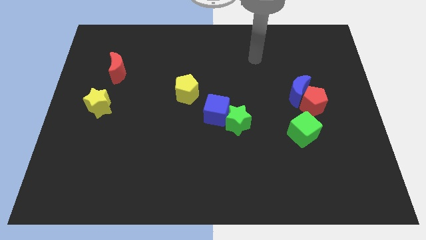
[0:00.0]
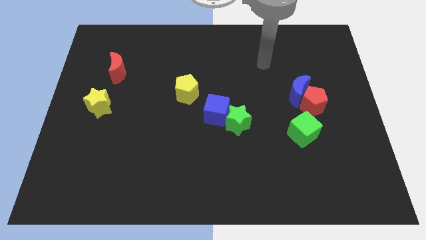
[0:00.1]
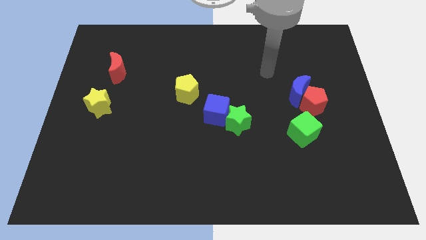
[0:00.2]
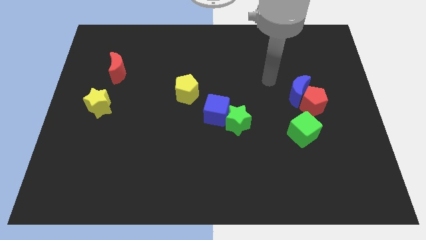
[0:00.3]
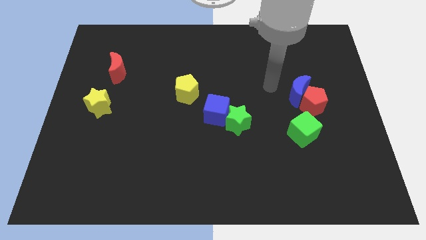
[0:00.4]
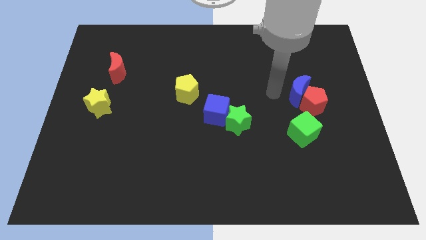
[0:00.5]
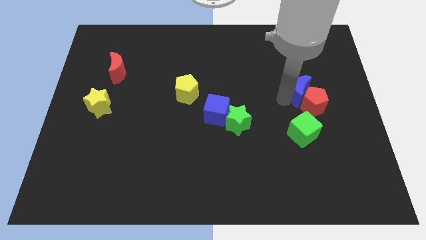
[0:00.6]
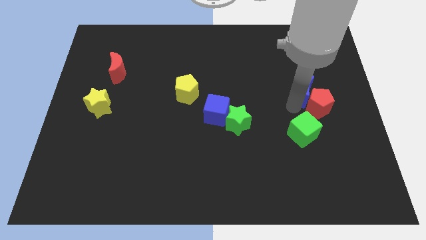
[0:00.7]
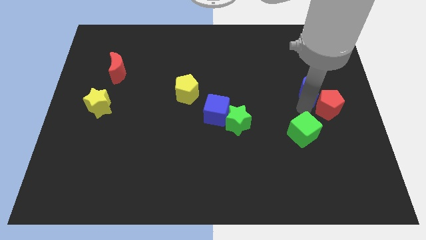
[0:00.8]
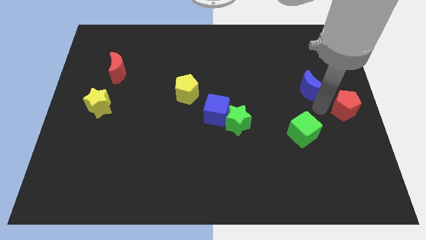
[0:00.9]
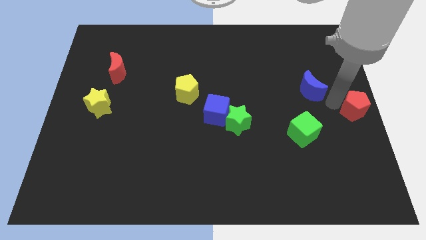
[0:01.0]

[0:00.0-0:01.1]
pull the blue moon apart from the red pentagon

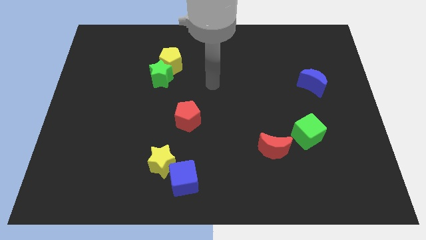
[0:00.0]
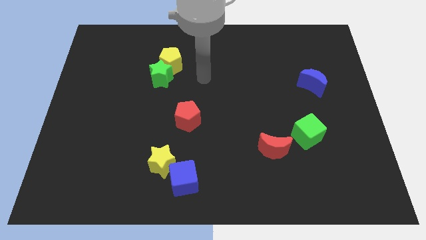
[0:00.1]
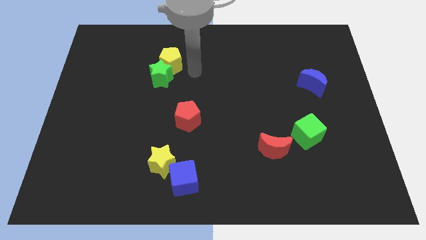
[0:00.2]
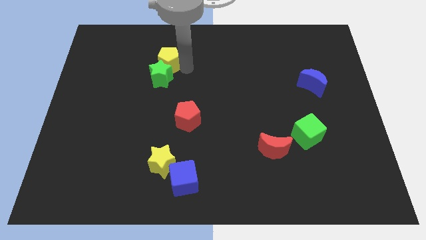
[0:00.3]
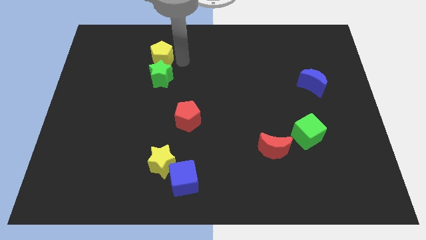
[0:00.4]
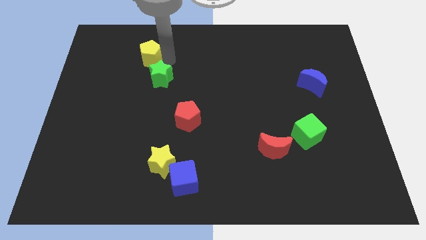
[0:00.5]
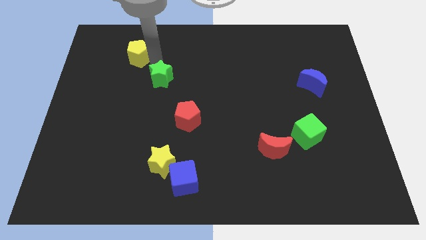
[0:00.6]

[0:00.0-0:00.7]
pull the green star apart from the yellow pentagon

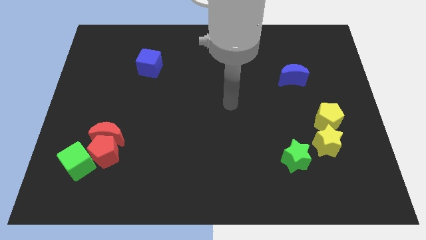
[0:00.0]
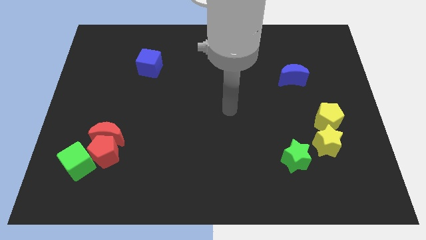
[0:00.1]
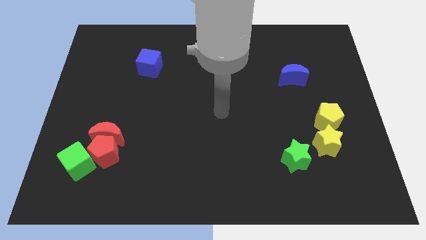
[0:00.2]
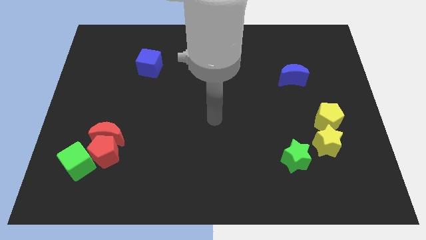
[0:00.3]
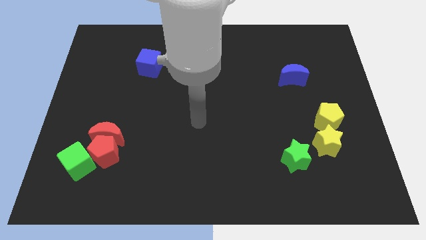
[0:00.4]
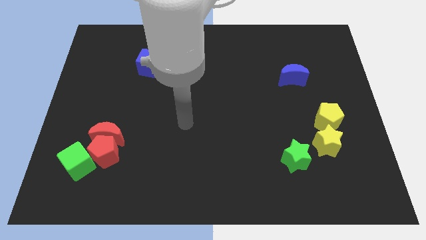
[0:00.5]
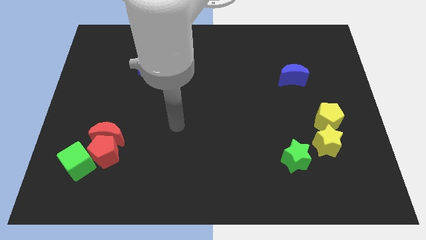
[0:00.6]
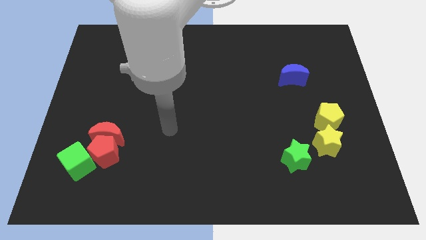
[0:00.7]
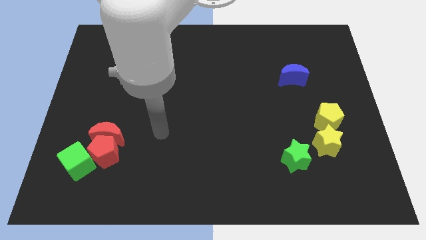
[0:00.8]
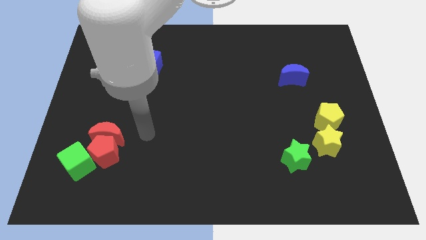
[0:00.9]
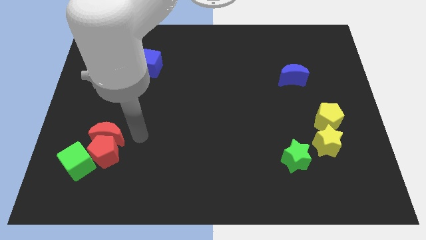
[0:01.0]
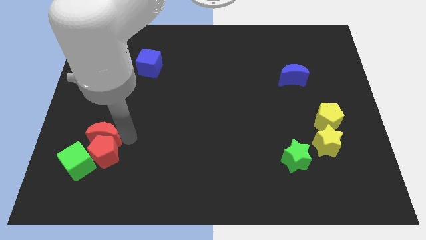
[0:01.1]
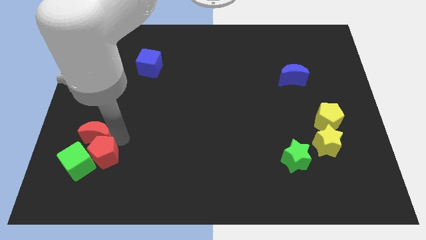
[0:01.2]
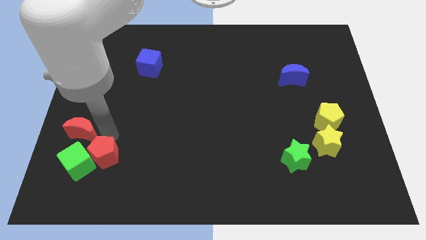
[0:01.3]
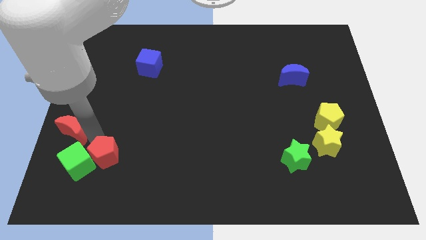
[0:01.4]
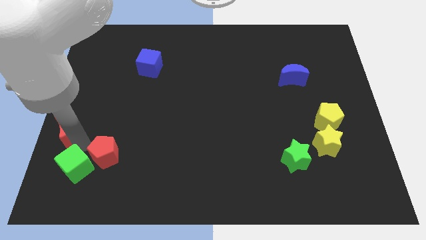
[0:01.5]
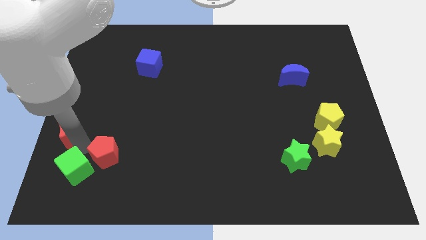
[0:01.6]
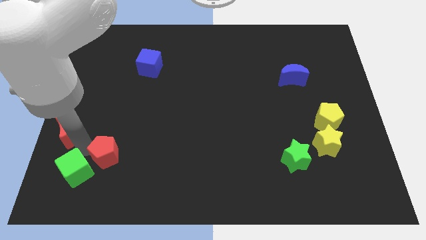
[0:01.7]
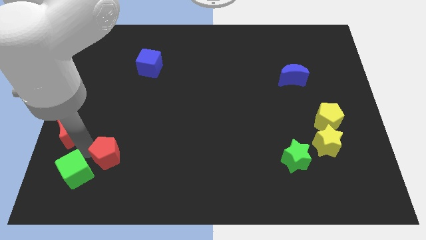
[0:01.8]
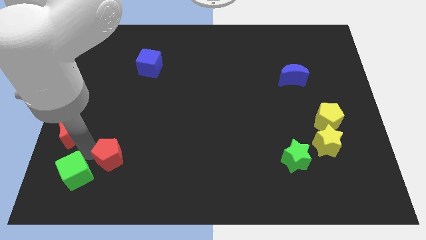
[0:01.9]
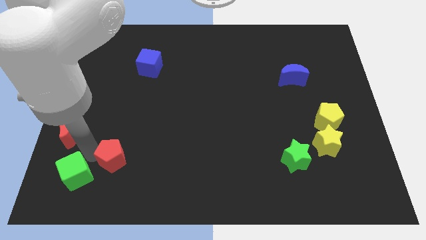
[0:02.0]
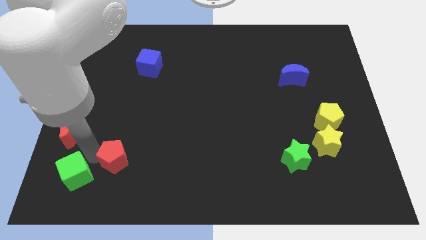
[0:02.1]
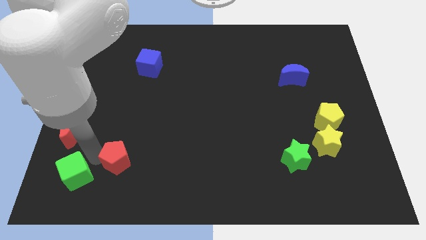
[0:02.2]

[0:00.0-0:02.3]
separate the red pentagon from the red moon and green cube

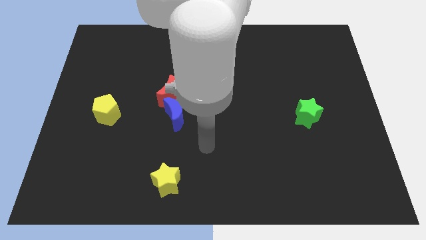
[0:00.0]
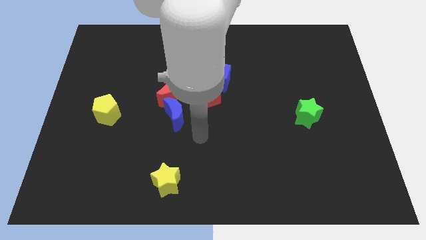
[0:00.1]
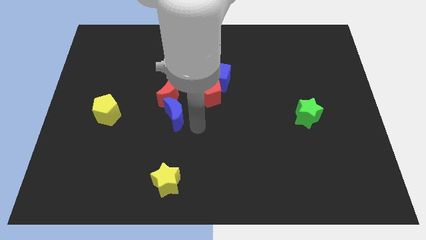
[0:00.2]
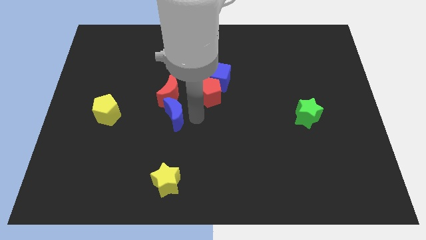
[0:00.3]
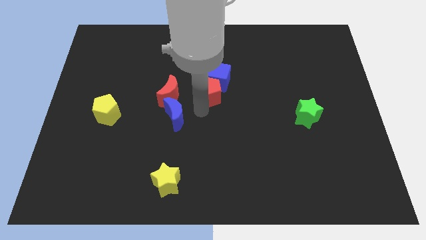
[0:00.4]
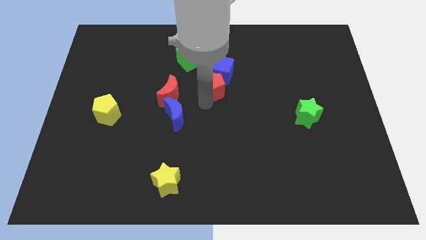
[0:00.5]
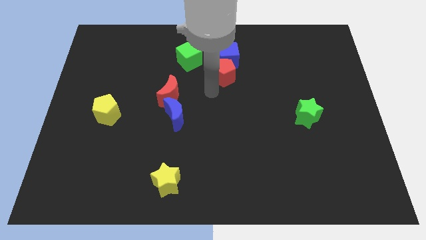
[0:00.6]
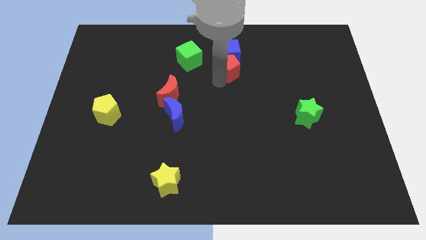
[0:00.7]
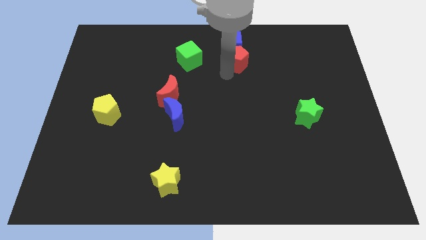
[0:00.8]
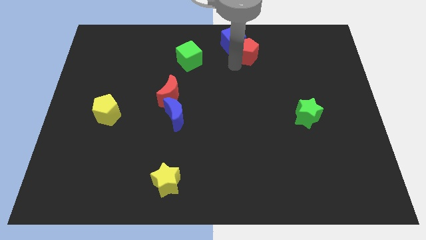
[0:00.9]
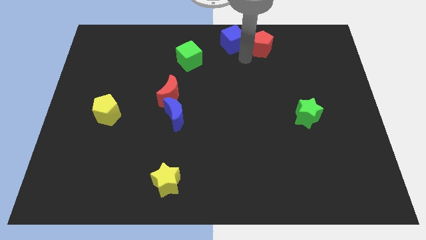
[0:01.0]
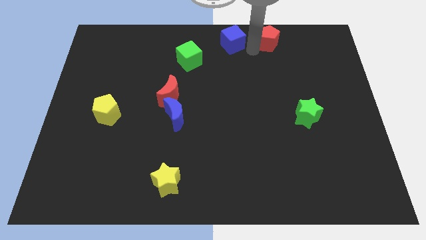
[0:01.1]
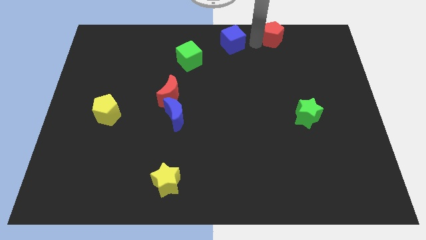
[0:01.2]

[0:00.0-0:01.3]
separate the blue cube from the red pentagon

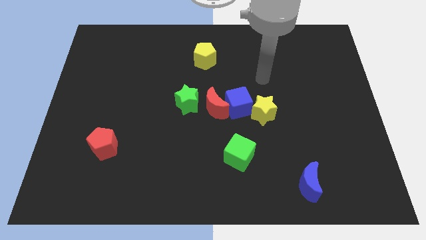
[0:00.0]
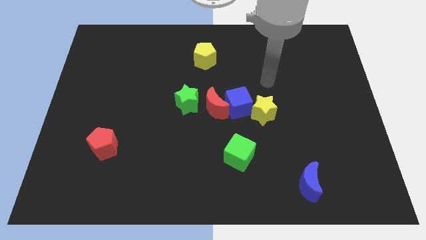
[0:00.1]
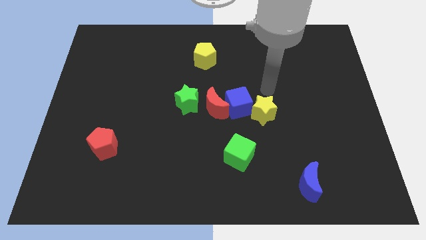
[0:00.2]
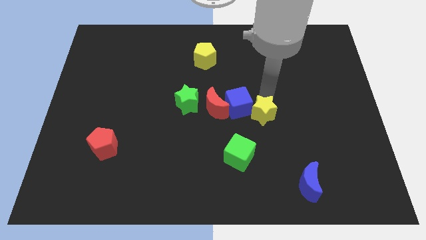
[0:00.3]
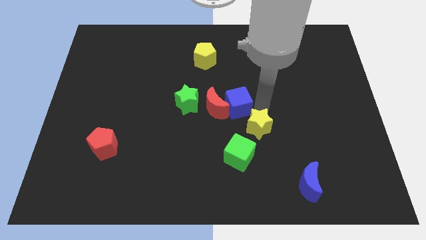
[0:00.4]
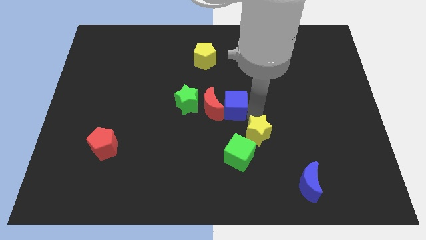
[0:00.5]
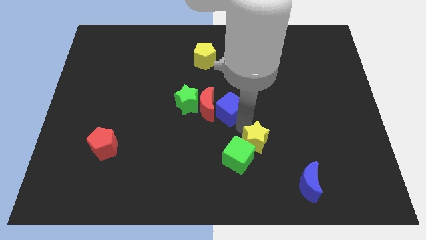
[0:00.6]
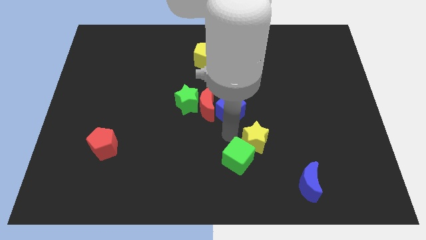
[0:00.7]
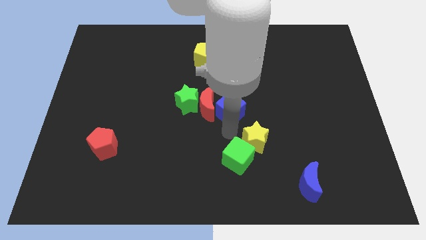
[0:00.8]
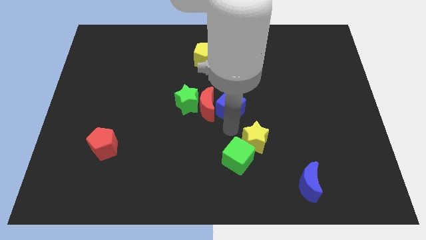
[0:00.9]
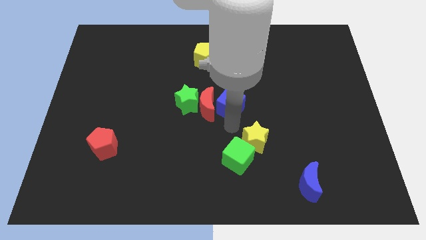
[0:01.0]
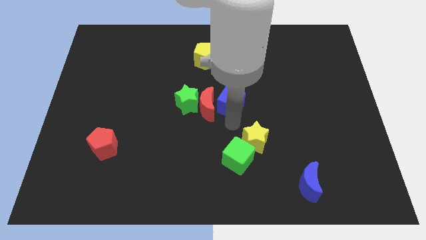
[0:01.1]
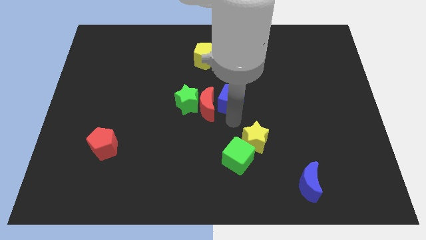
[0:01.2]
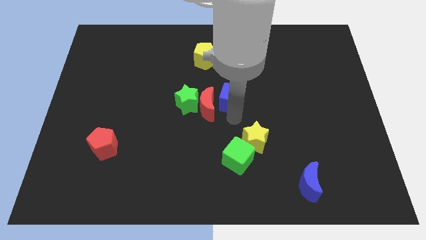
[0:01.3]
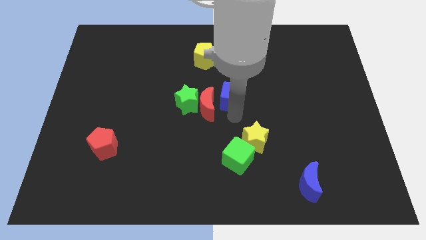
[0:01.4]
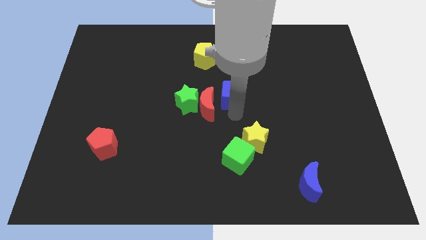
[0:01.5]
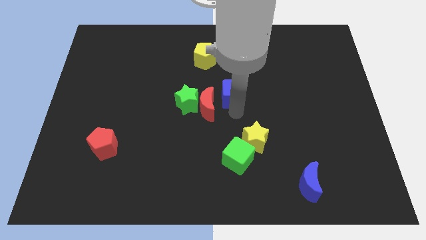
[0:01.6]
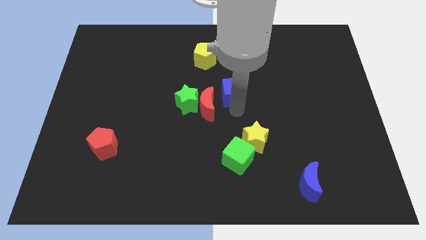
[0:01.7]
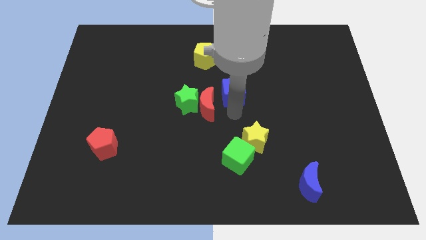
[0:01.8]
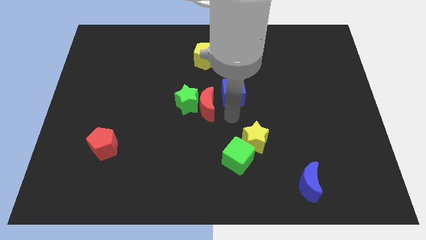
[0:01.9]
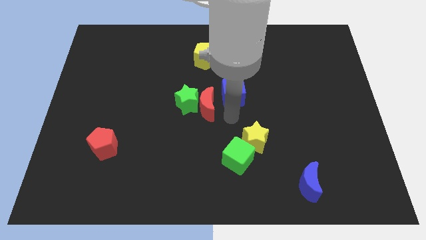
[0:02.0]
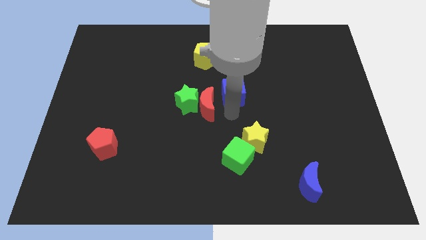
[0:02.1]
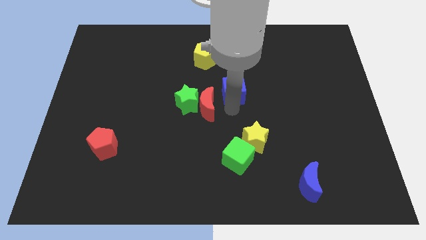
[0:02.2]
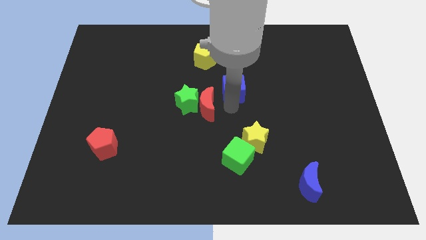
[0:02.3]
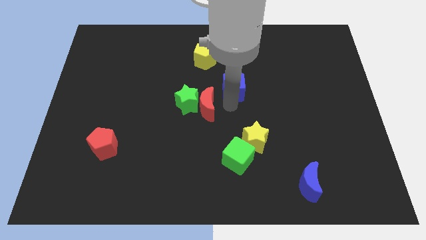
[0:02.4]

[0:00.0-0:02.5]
move the blue cube away from the red moon and yellow star

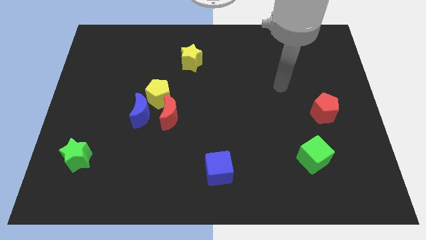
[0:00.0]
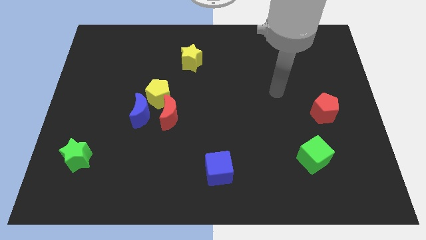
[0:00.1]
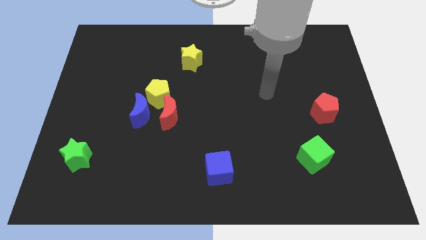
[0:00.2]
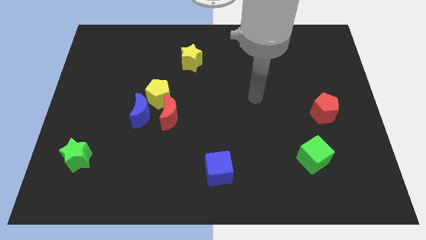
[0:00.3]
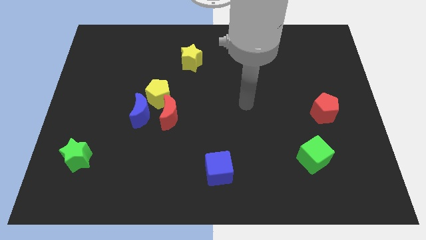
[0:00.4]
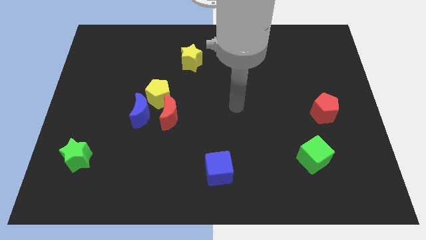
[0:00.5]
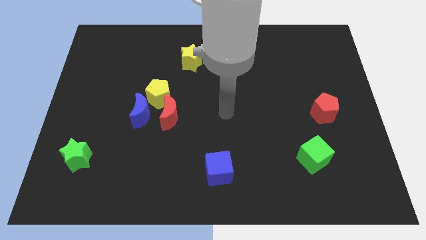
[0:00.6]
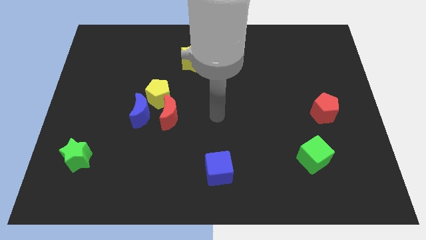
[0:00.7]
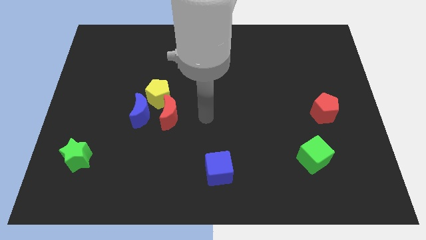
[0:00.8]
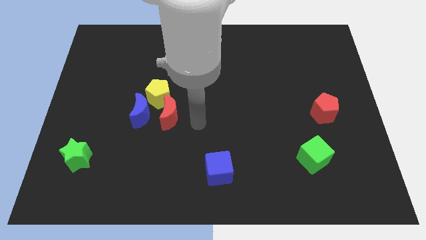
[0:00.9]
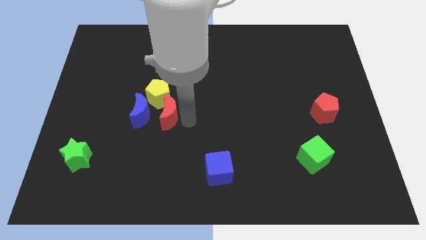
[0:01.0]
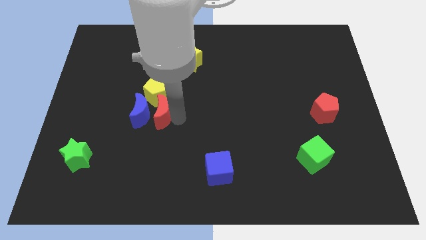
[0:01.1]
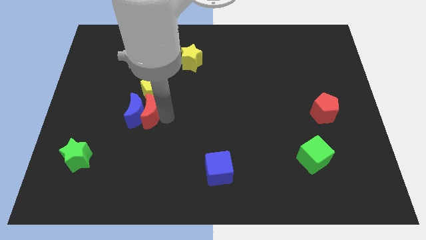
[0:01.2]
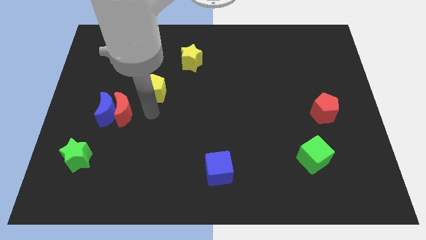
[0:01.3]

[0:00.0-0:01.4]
move the yellow pentagon away from the blue moon and red moon
